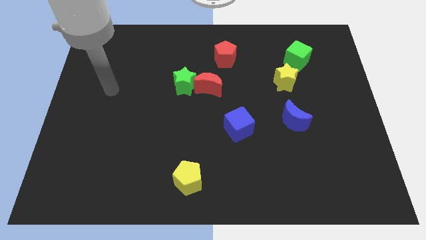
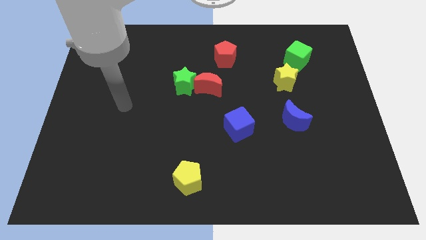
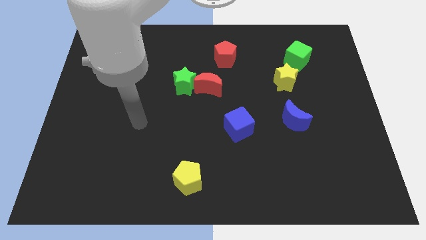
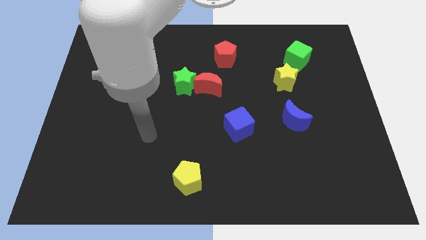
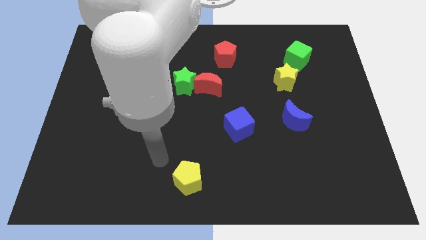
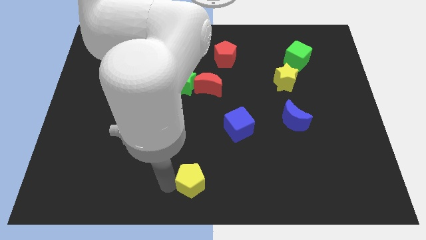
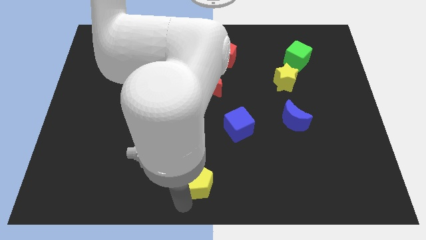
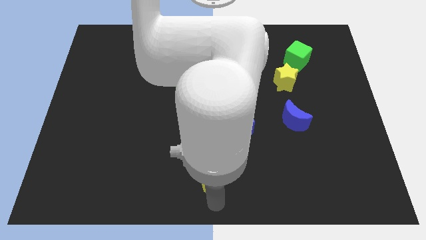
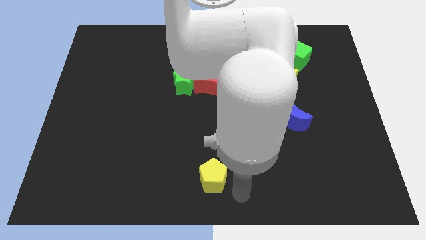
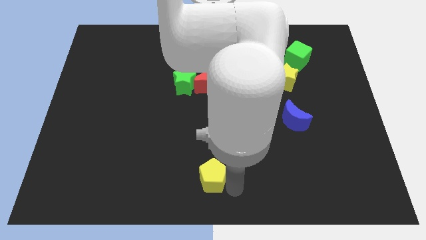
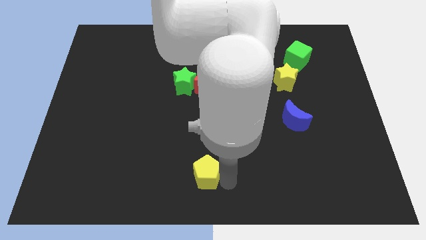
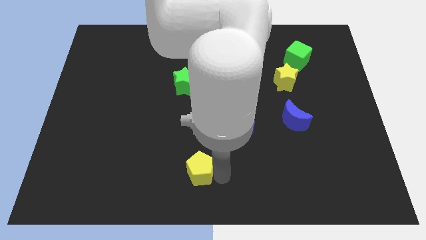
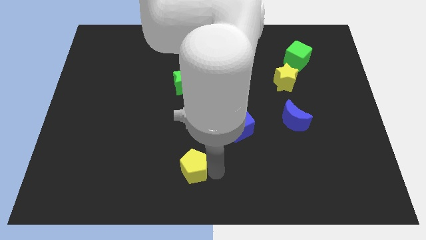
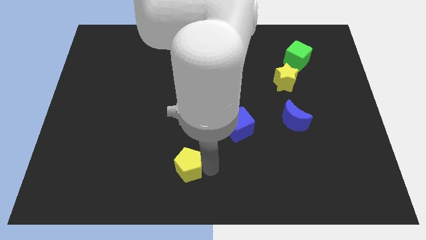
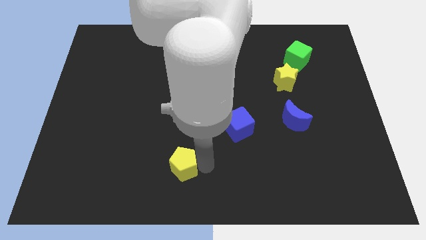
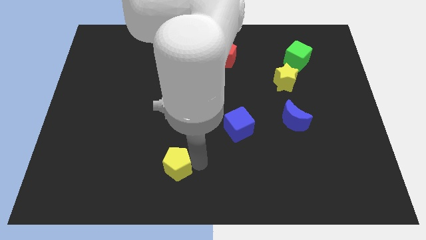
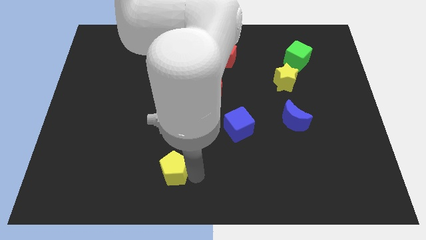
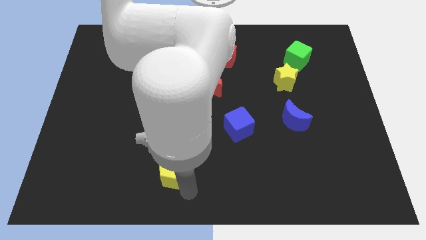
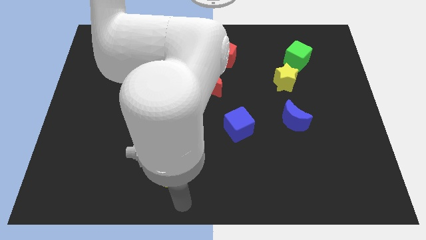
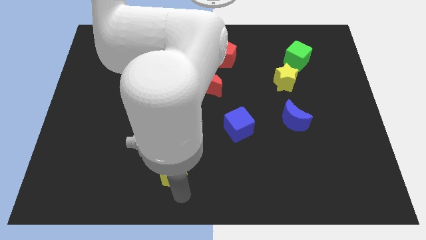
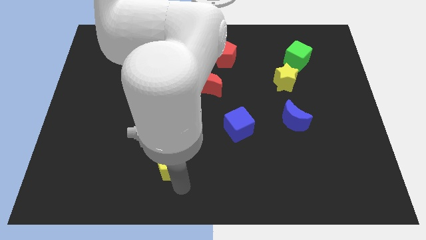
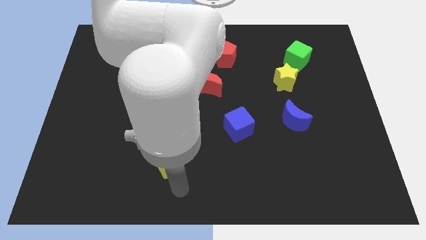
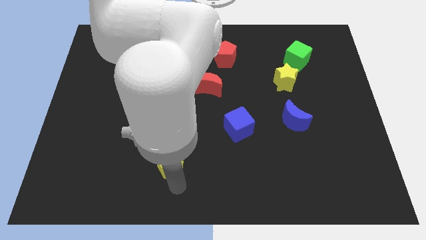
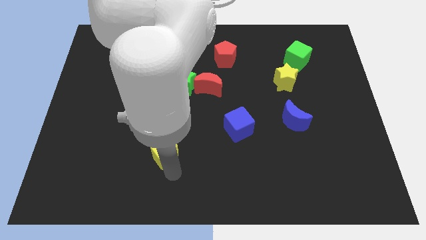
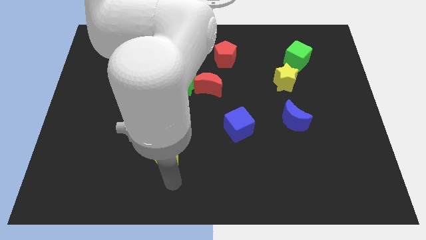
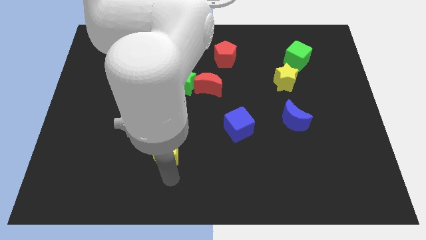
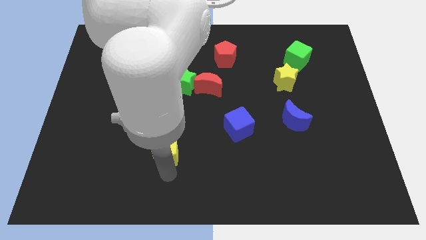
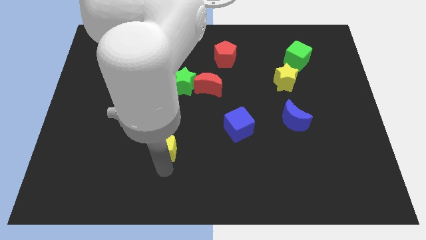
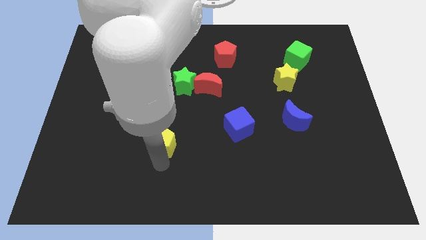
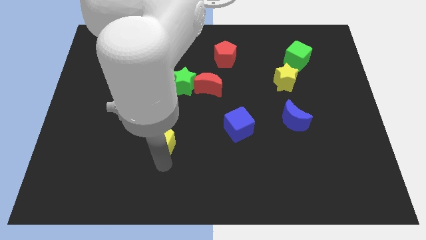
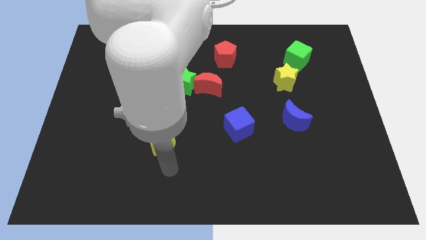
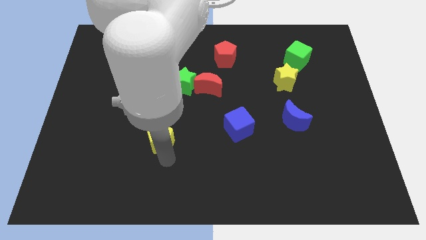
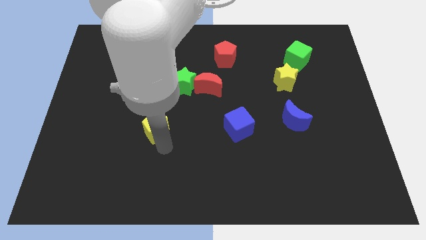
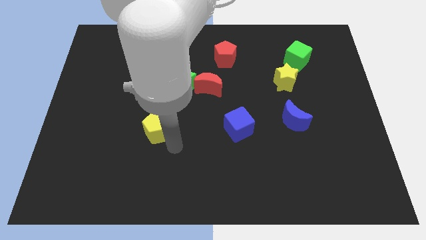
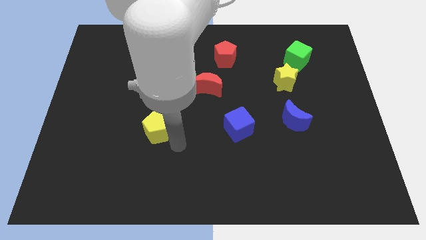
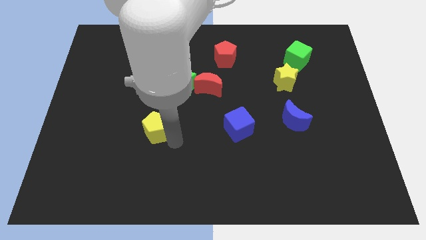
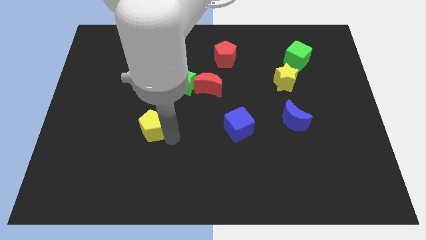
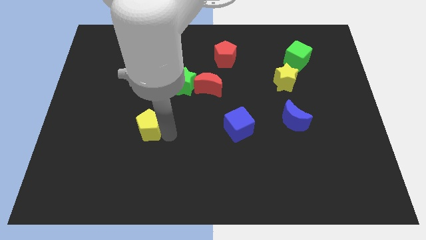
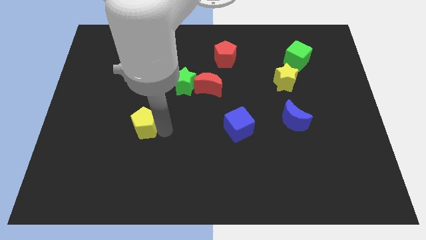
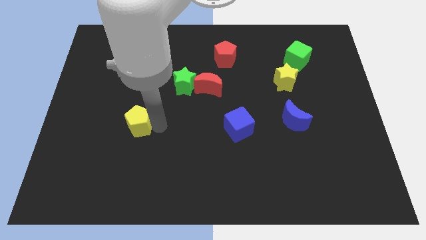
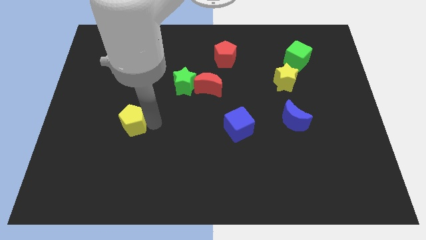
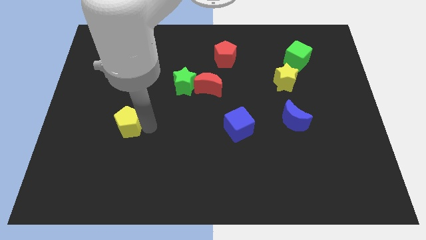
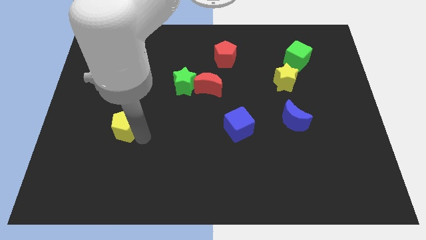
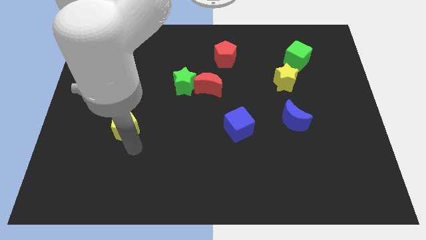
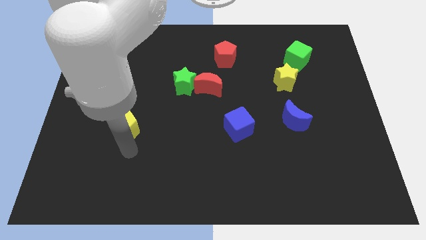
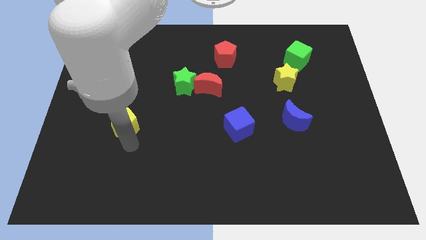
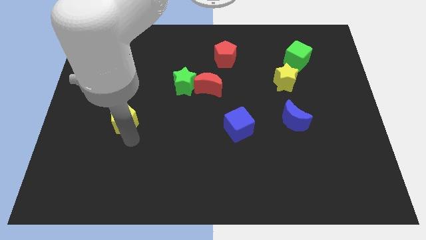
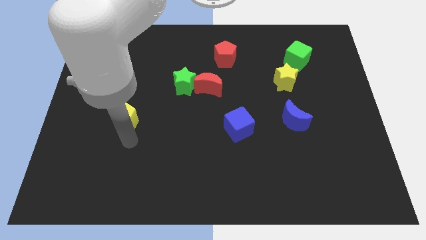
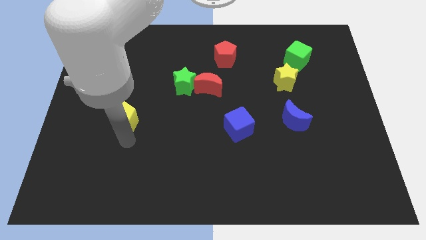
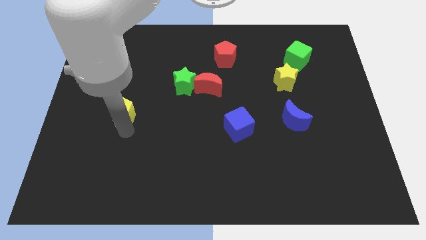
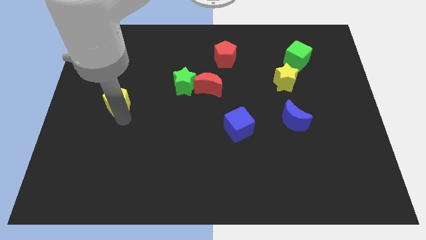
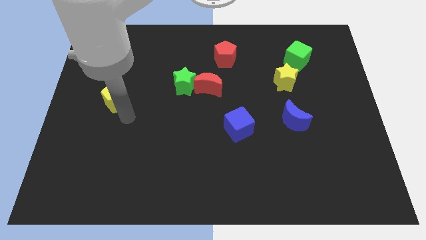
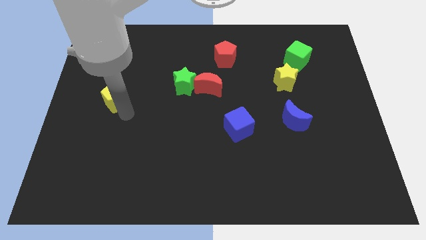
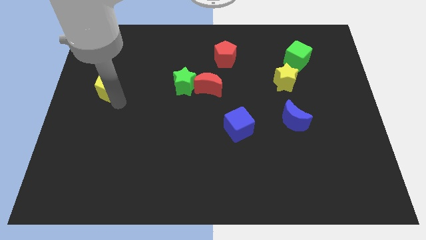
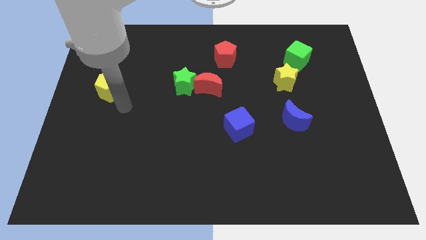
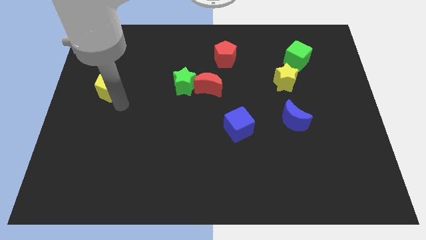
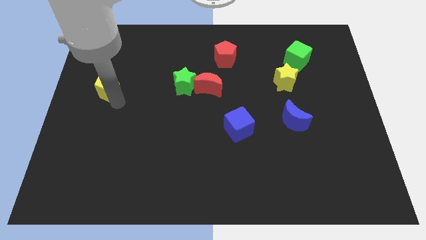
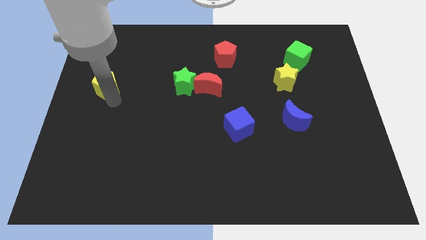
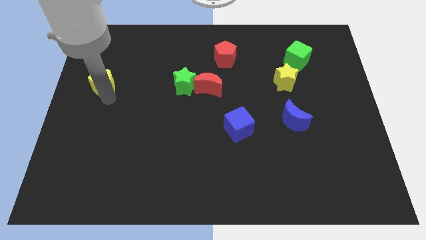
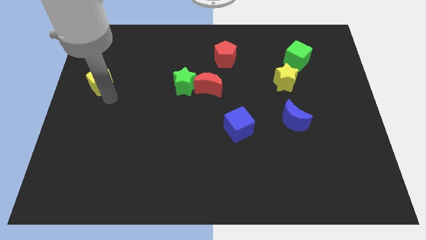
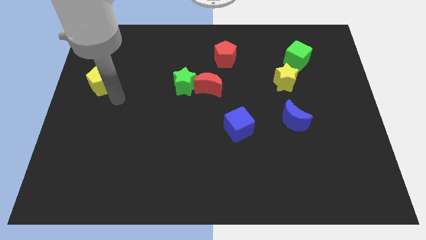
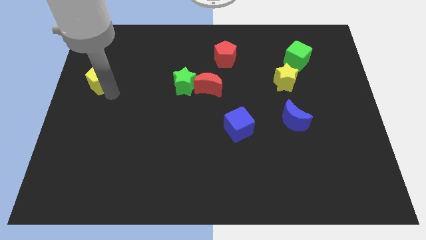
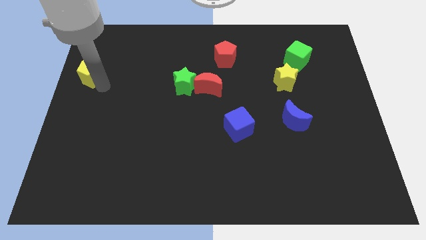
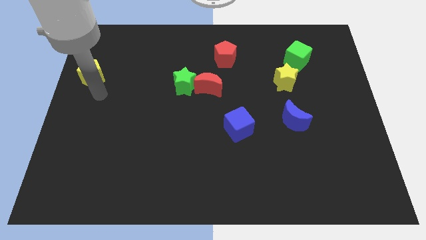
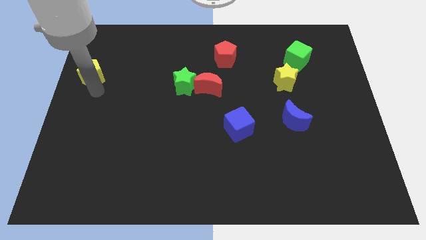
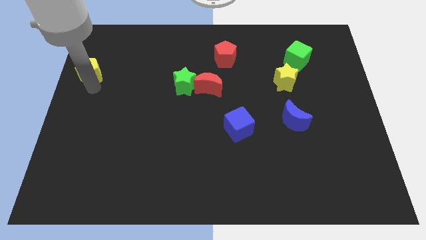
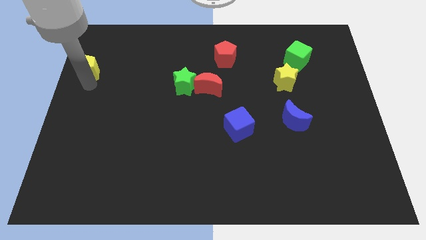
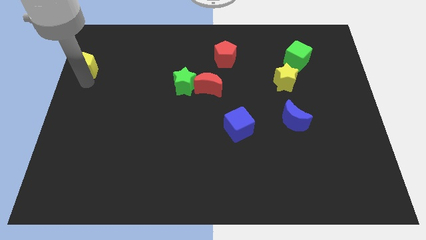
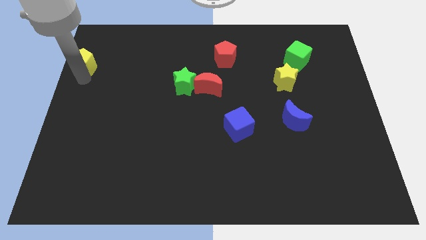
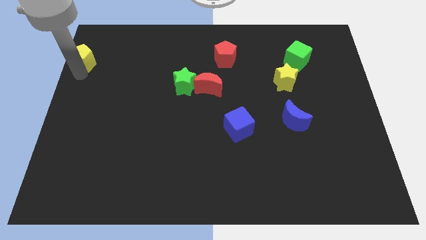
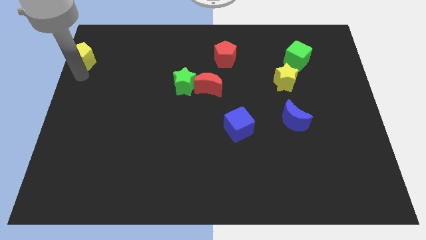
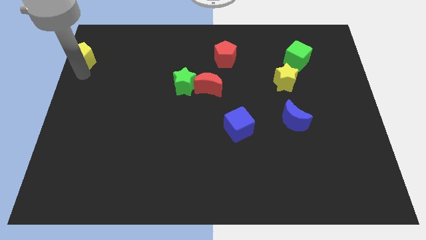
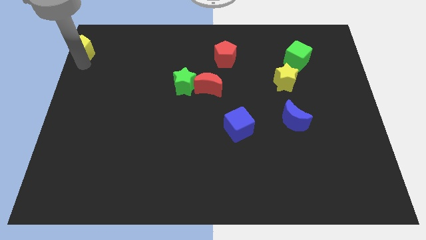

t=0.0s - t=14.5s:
put the yellow pentagon to the upper left corner
